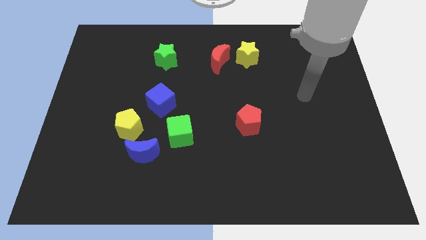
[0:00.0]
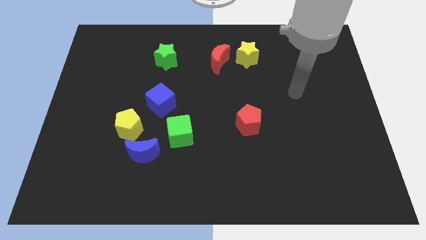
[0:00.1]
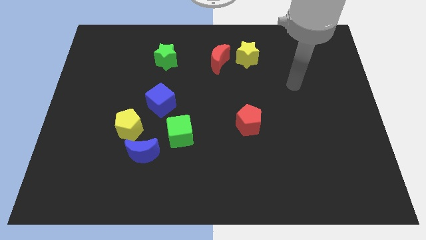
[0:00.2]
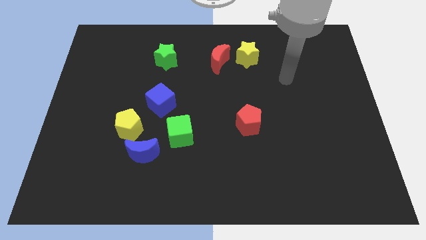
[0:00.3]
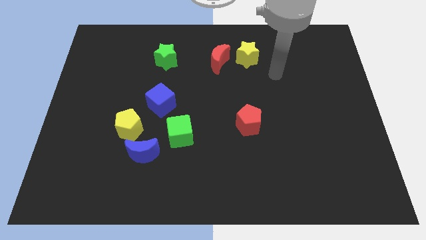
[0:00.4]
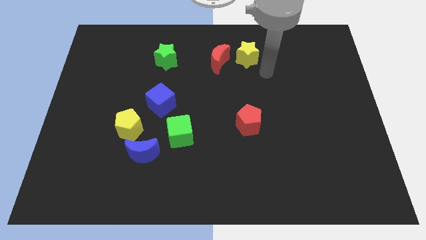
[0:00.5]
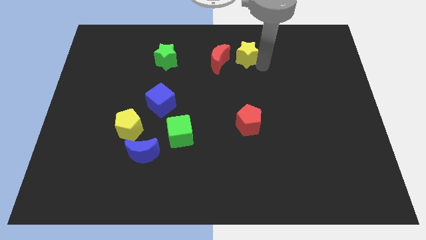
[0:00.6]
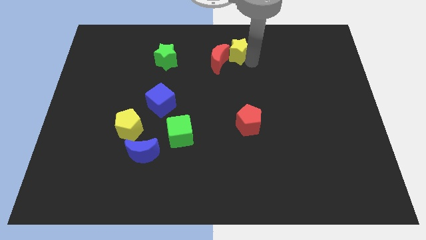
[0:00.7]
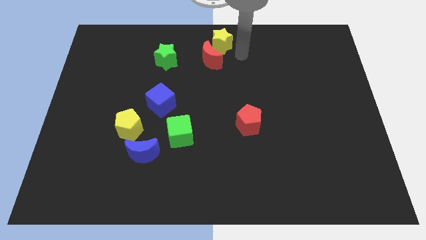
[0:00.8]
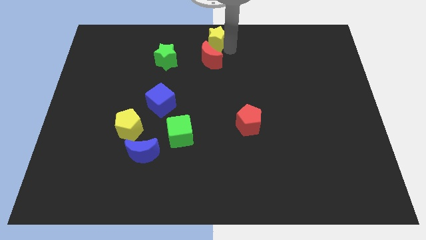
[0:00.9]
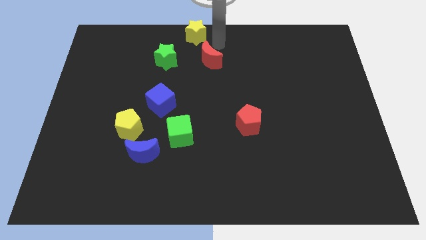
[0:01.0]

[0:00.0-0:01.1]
separate the red moon from the yellow star

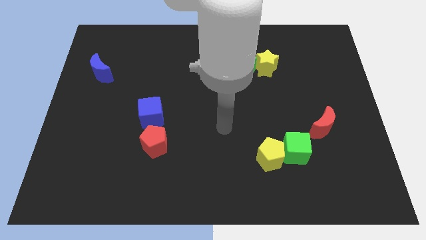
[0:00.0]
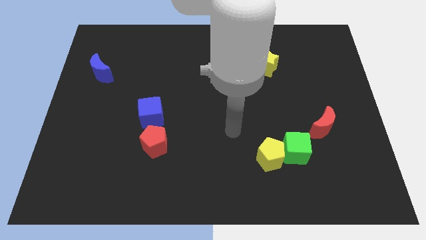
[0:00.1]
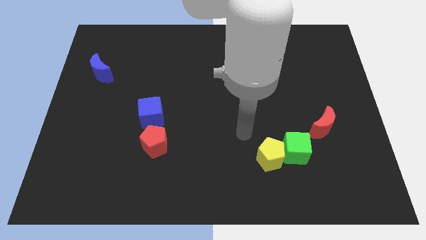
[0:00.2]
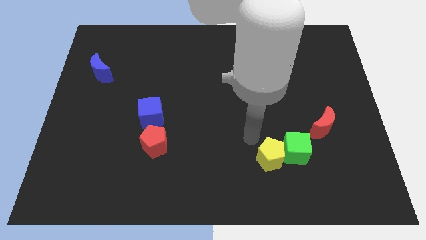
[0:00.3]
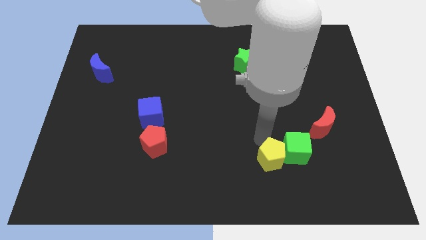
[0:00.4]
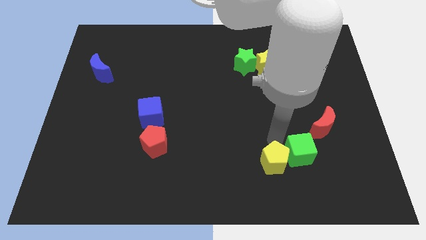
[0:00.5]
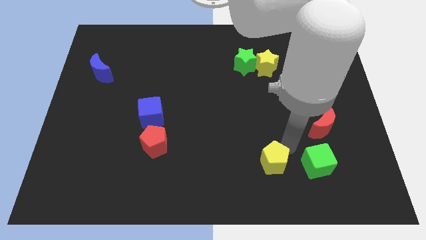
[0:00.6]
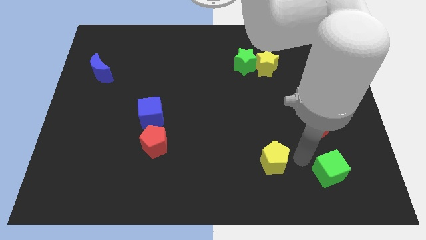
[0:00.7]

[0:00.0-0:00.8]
separate the yellow pentagon from the green cube

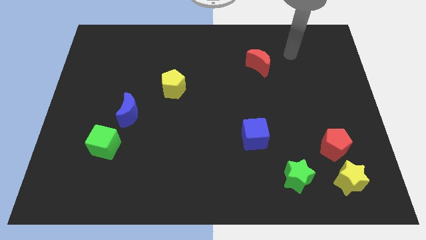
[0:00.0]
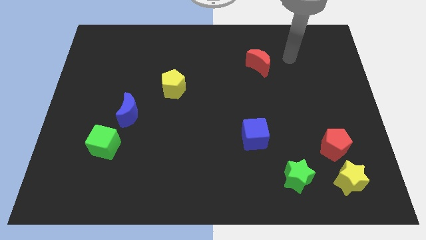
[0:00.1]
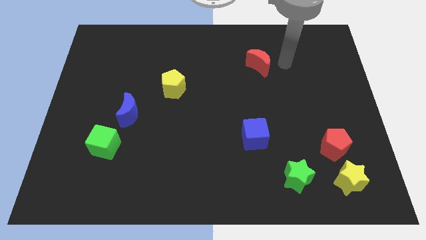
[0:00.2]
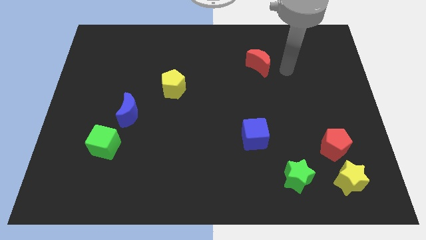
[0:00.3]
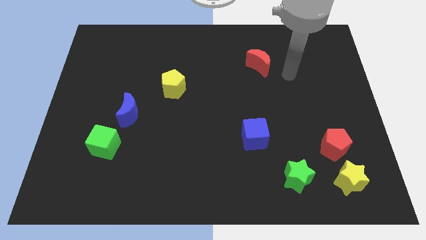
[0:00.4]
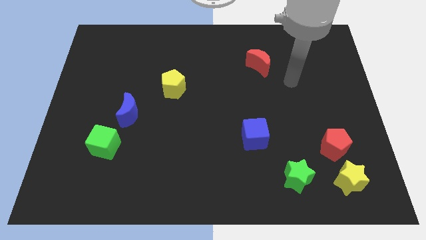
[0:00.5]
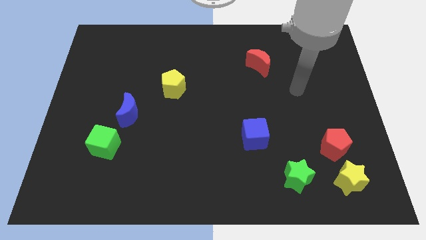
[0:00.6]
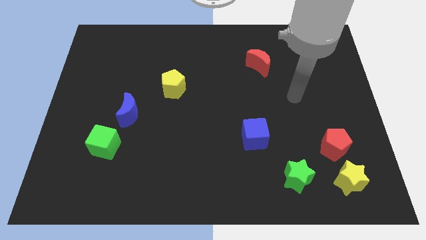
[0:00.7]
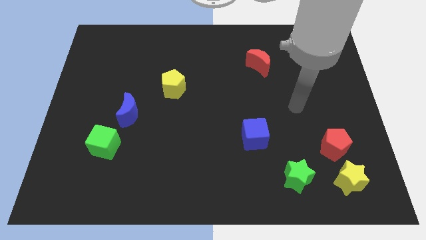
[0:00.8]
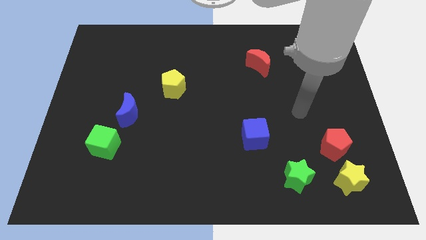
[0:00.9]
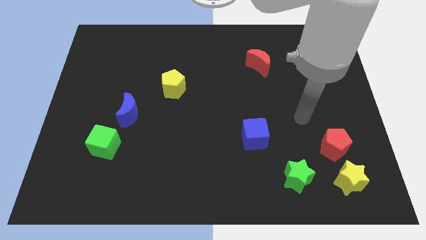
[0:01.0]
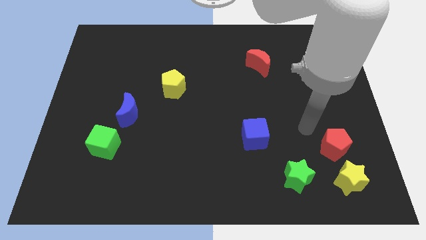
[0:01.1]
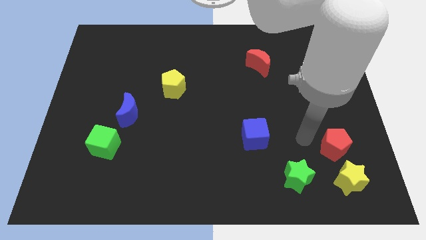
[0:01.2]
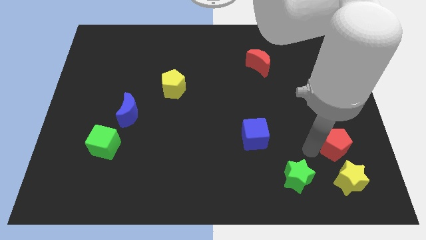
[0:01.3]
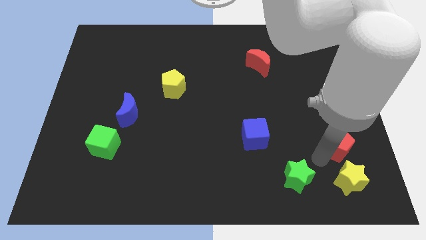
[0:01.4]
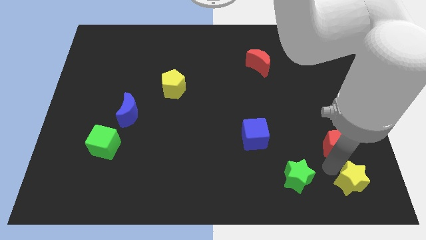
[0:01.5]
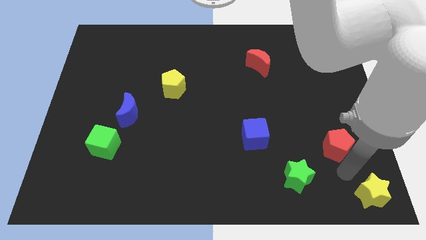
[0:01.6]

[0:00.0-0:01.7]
pull the red pentagon apart from the yellow star

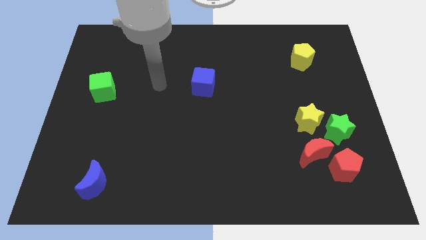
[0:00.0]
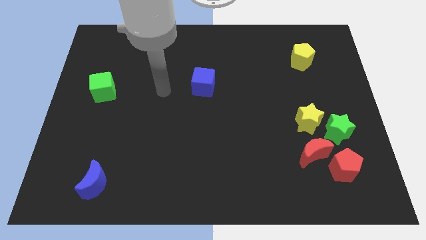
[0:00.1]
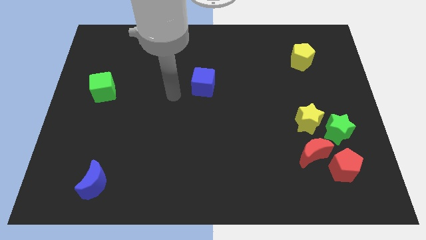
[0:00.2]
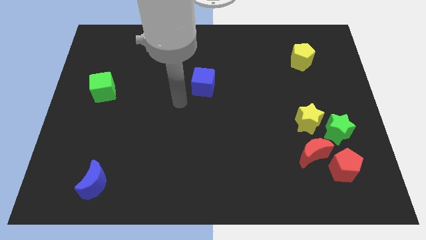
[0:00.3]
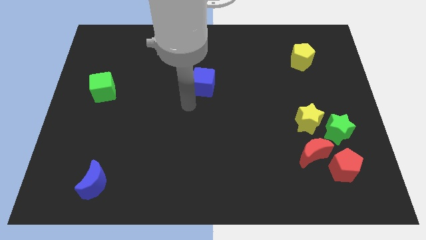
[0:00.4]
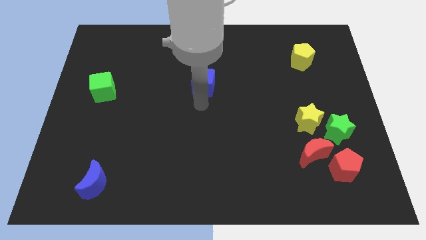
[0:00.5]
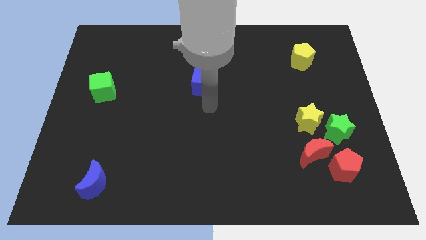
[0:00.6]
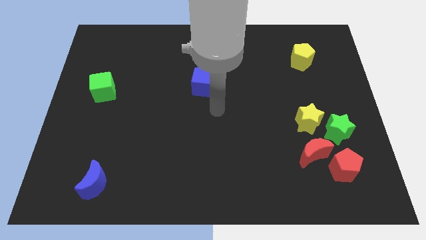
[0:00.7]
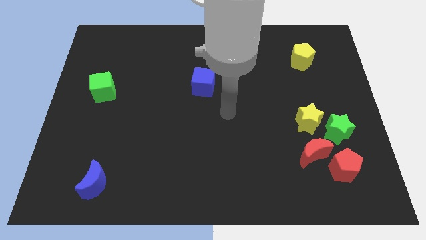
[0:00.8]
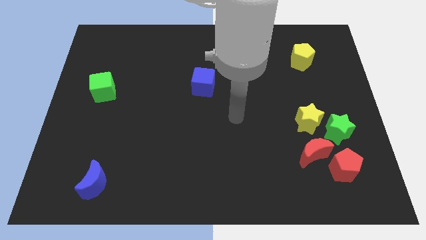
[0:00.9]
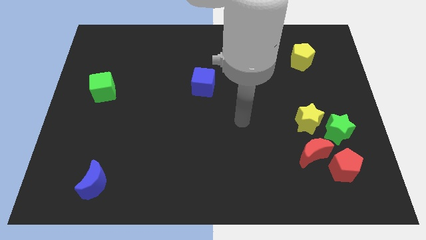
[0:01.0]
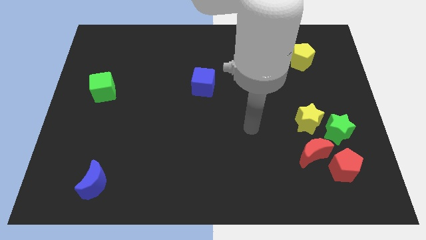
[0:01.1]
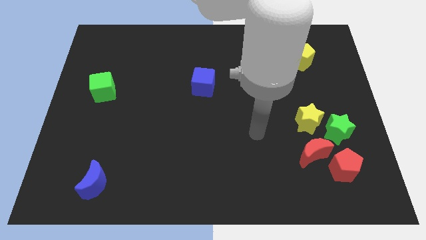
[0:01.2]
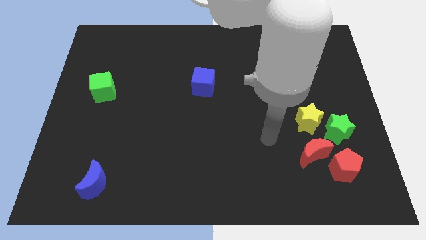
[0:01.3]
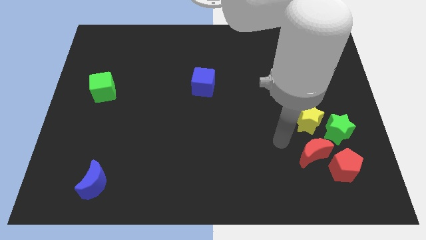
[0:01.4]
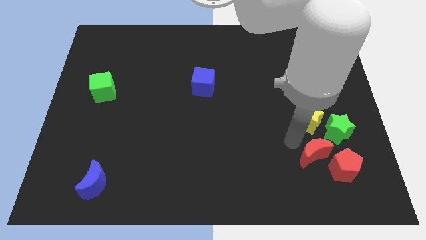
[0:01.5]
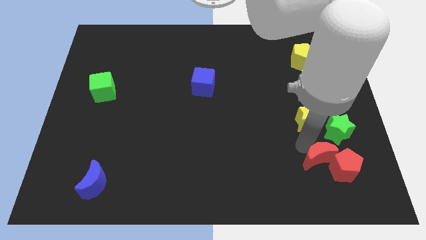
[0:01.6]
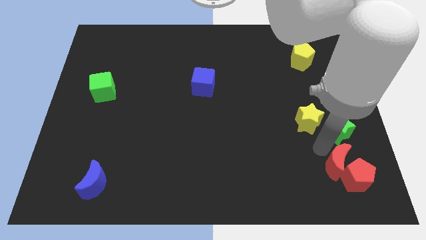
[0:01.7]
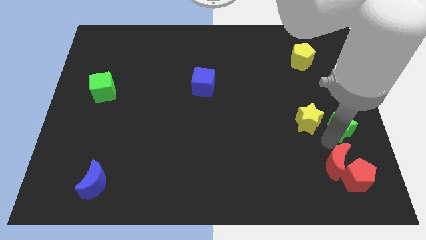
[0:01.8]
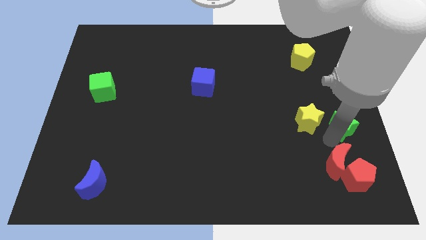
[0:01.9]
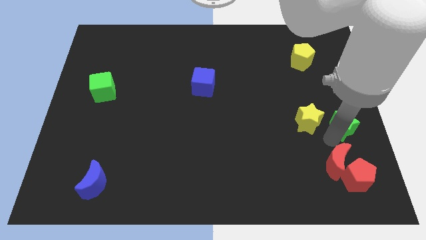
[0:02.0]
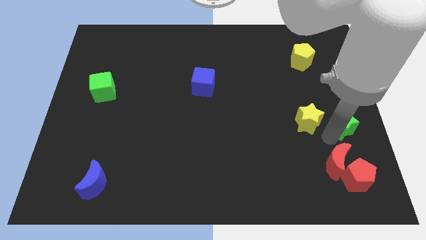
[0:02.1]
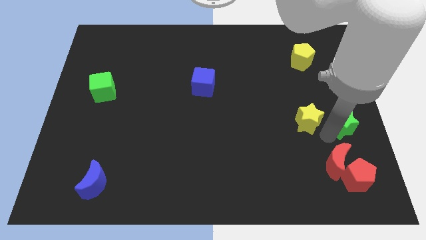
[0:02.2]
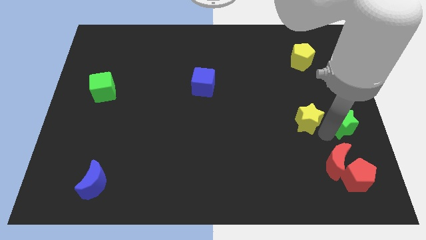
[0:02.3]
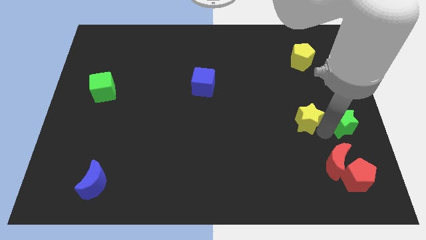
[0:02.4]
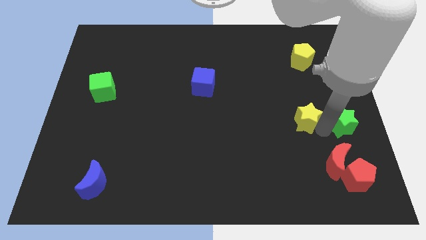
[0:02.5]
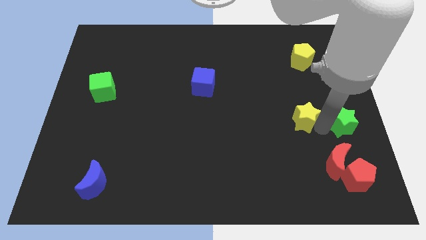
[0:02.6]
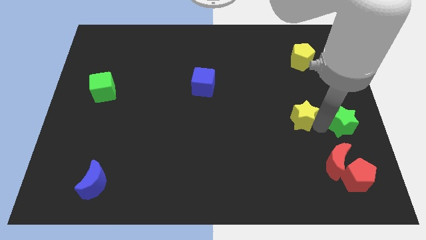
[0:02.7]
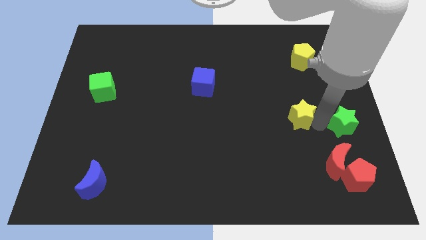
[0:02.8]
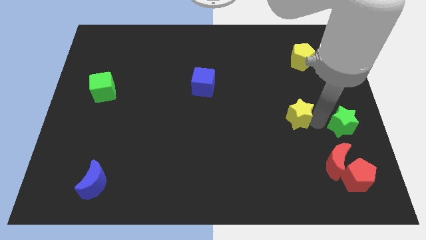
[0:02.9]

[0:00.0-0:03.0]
move the yellow star away from the green star and red moon

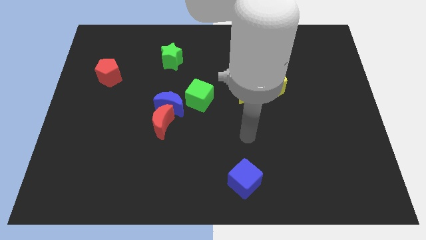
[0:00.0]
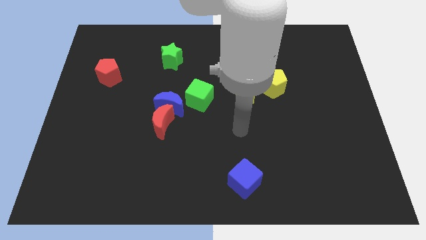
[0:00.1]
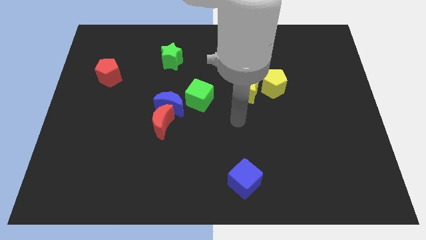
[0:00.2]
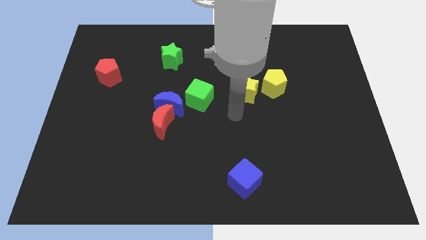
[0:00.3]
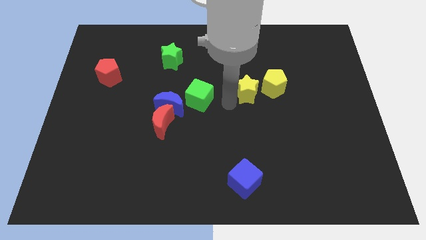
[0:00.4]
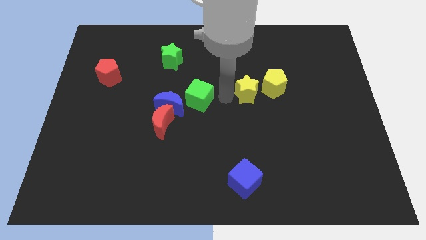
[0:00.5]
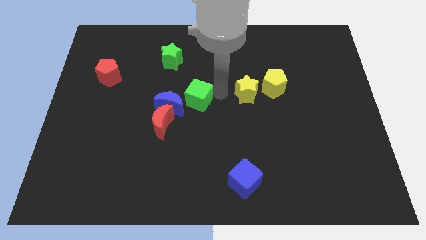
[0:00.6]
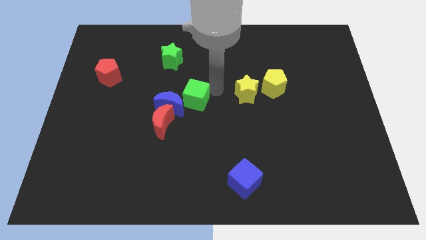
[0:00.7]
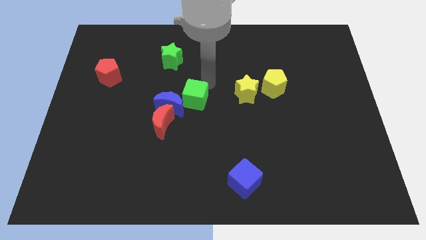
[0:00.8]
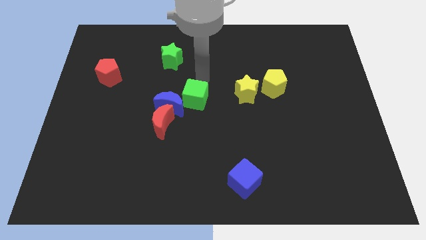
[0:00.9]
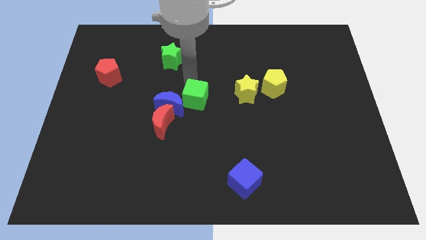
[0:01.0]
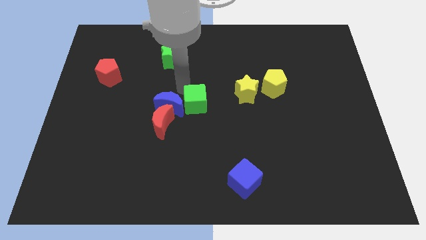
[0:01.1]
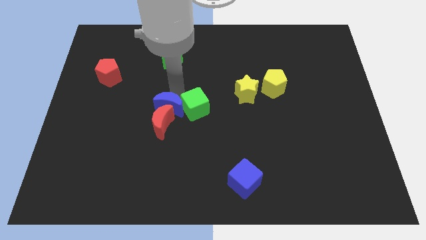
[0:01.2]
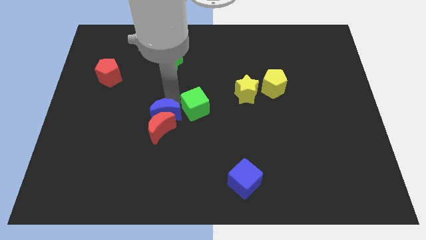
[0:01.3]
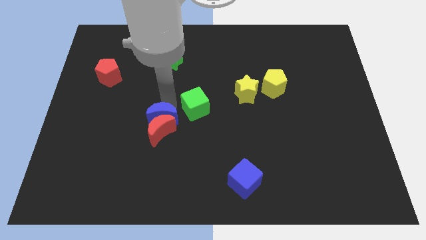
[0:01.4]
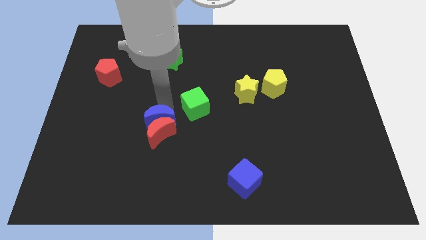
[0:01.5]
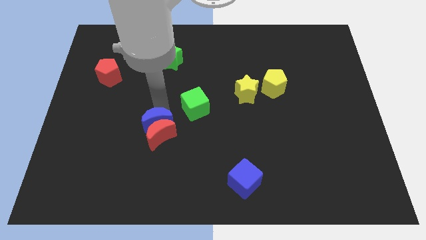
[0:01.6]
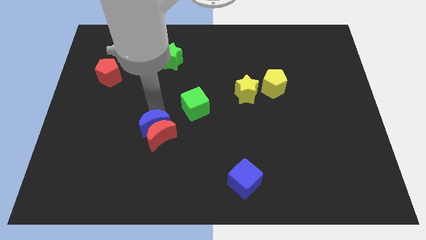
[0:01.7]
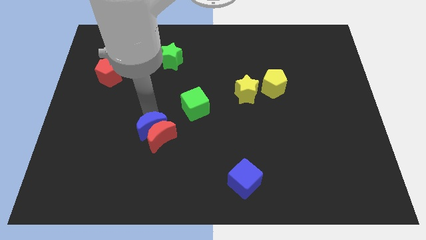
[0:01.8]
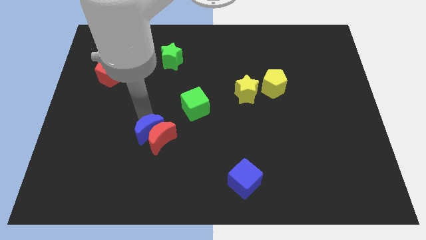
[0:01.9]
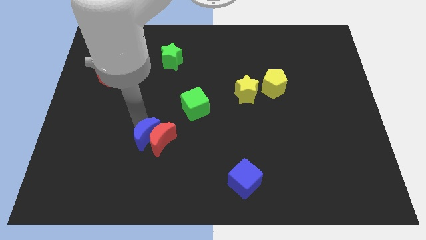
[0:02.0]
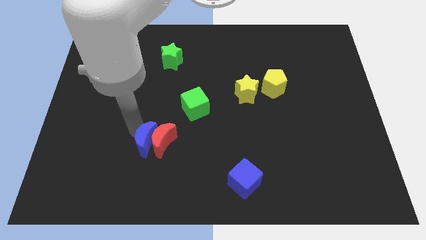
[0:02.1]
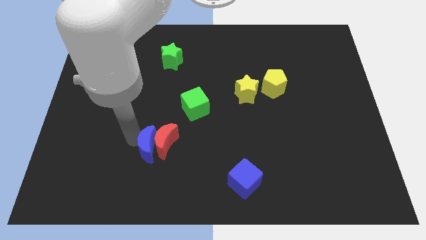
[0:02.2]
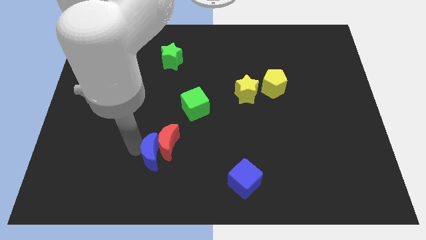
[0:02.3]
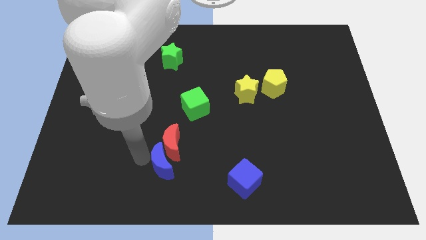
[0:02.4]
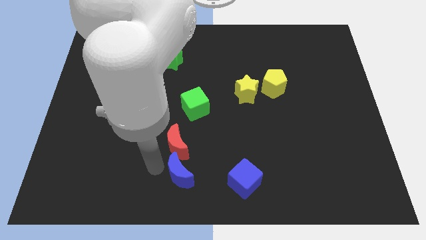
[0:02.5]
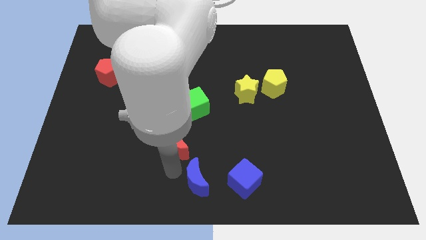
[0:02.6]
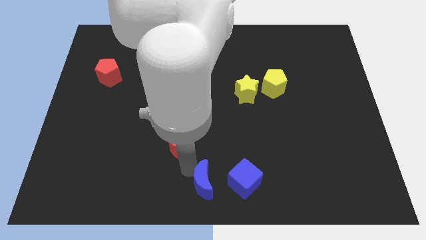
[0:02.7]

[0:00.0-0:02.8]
pull the red moon apart from the blue moon
